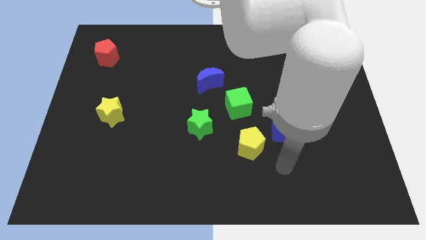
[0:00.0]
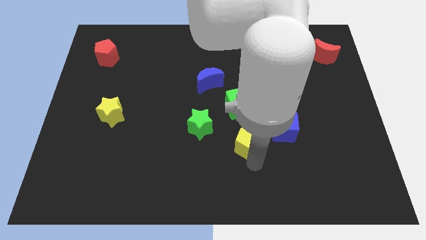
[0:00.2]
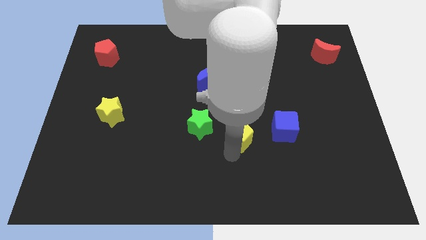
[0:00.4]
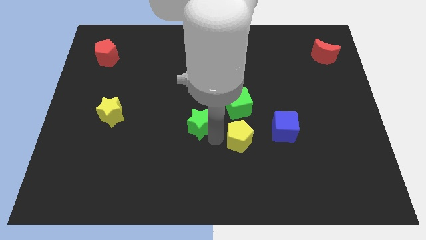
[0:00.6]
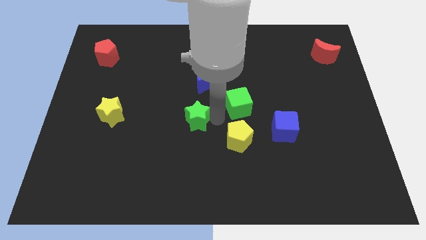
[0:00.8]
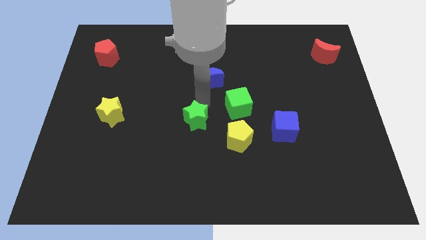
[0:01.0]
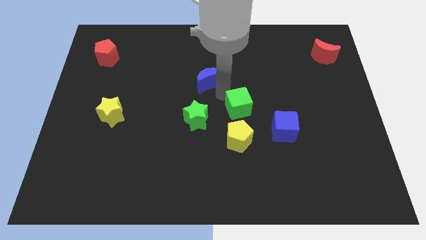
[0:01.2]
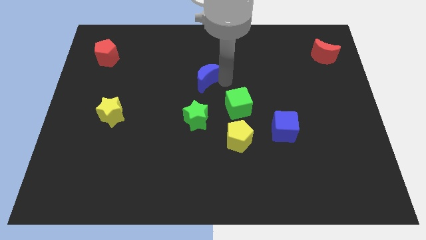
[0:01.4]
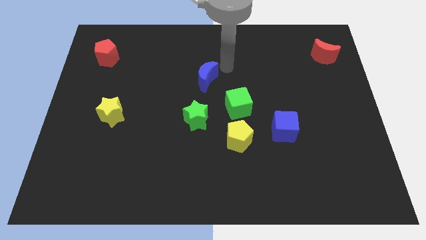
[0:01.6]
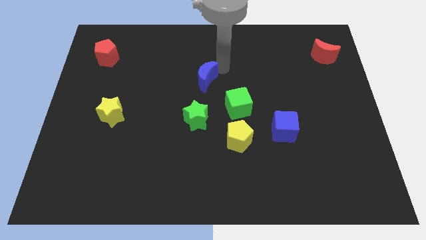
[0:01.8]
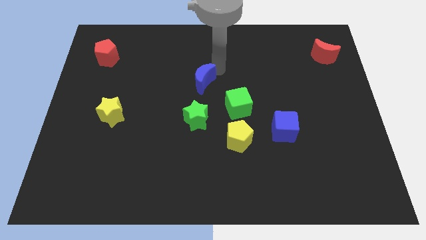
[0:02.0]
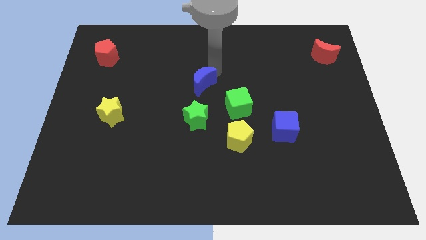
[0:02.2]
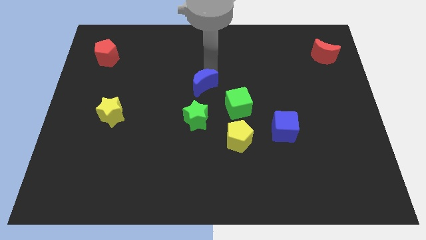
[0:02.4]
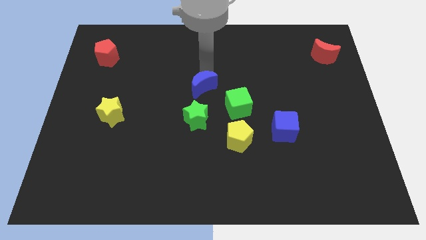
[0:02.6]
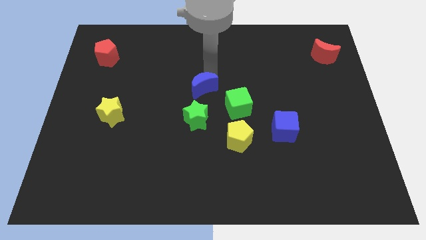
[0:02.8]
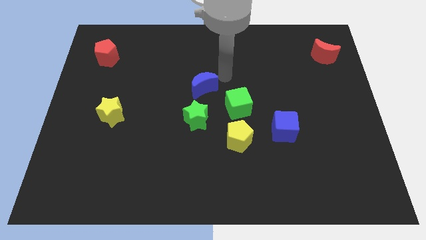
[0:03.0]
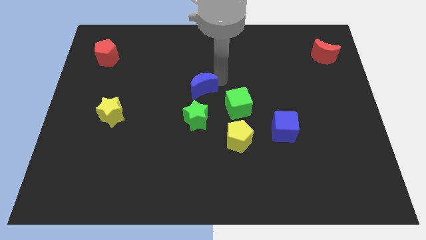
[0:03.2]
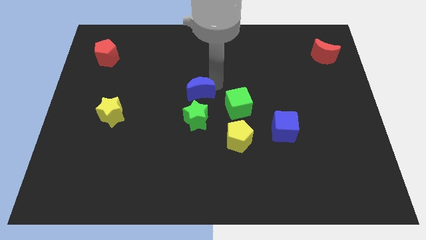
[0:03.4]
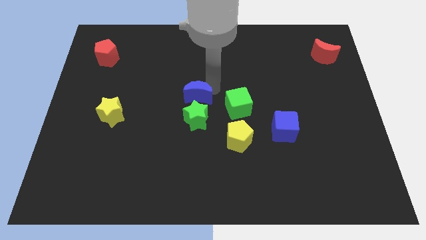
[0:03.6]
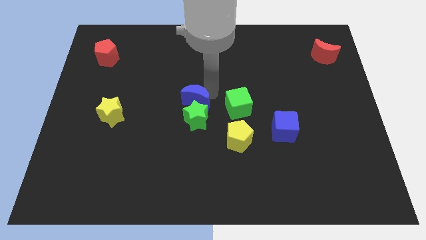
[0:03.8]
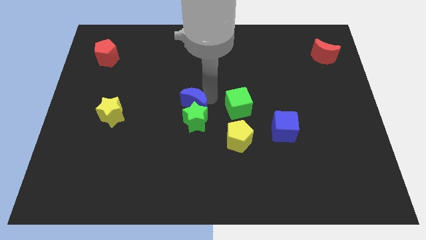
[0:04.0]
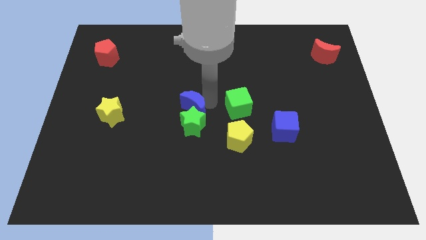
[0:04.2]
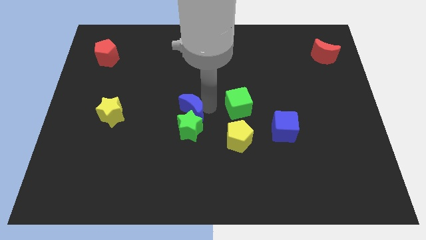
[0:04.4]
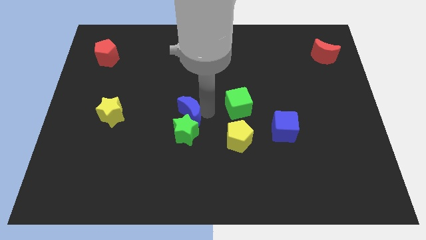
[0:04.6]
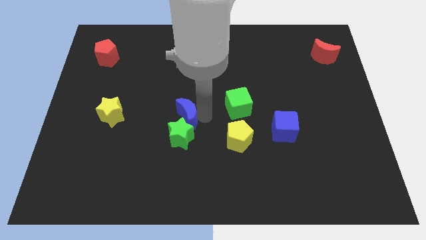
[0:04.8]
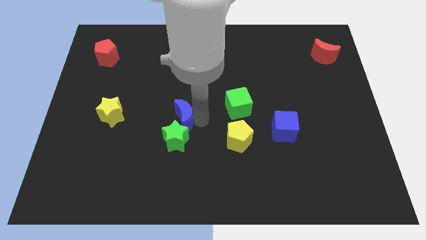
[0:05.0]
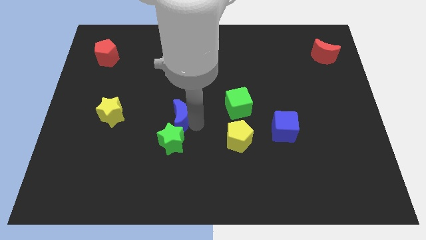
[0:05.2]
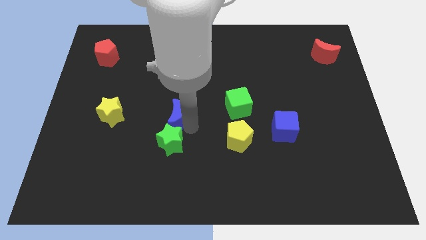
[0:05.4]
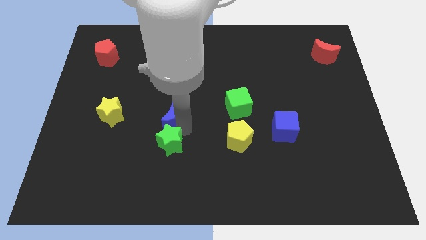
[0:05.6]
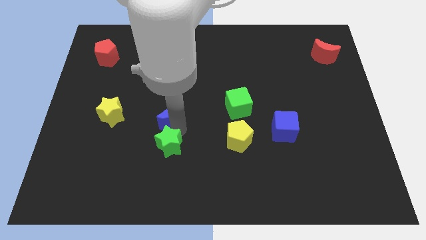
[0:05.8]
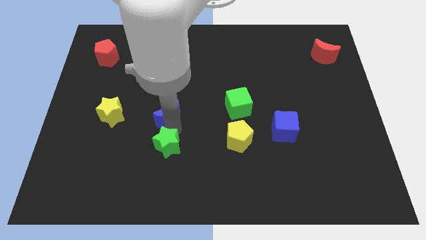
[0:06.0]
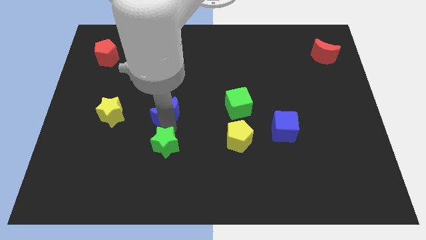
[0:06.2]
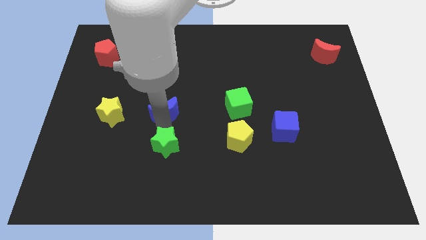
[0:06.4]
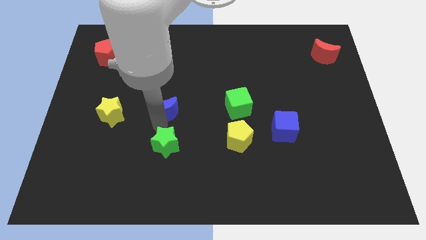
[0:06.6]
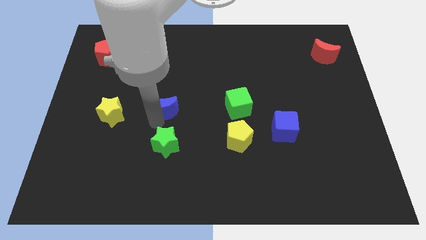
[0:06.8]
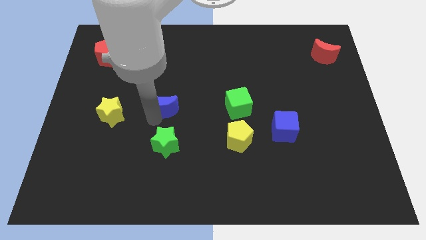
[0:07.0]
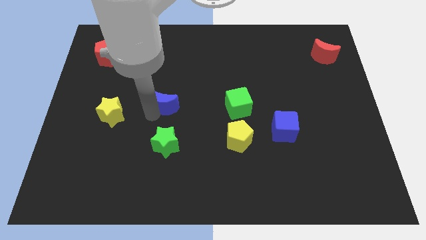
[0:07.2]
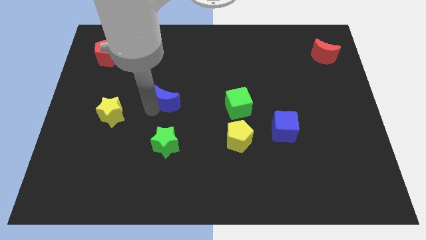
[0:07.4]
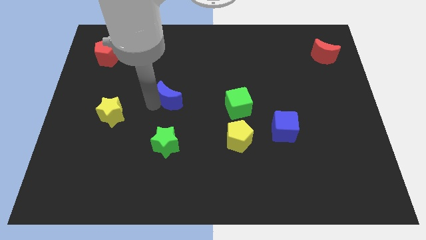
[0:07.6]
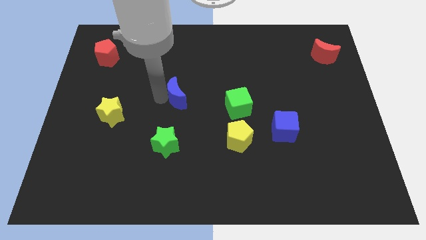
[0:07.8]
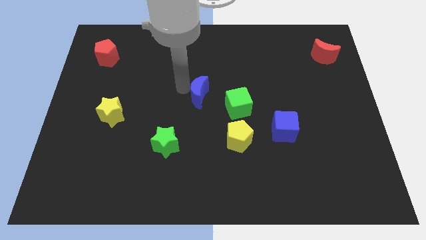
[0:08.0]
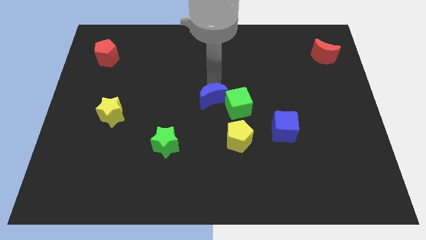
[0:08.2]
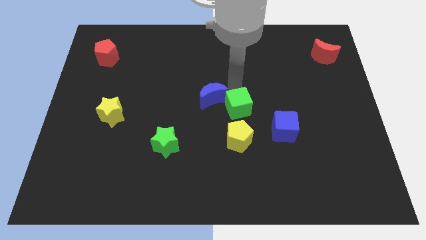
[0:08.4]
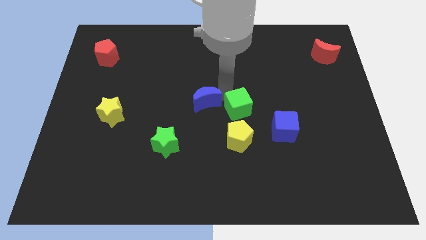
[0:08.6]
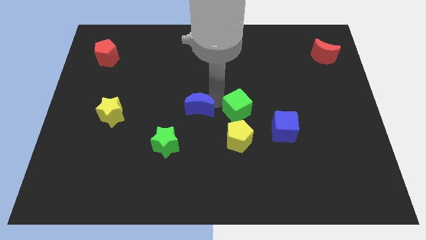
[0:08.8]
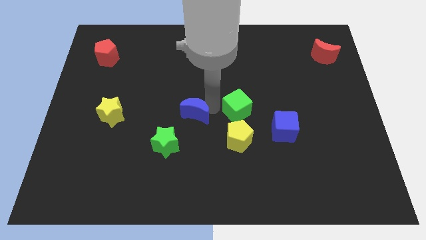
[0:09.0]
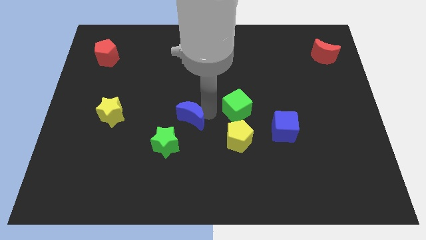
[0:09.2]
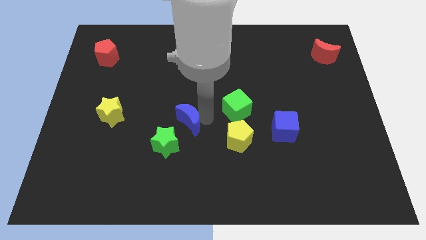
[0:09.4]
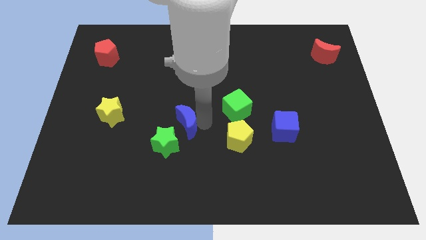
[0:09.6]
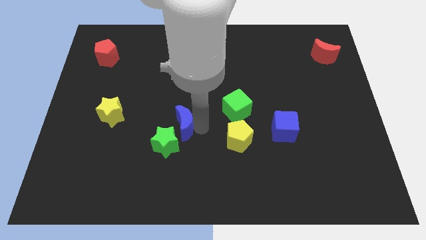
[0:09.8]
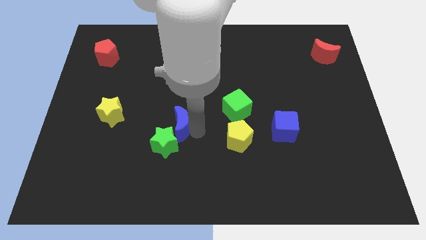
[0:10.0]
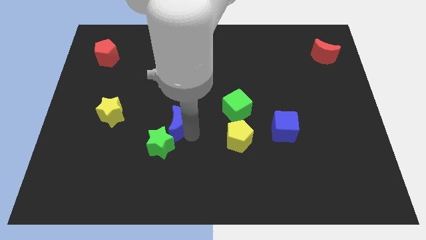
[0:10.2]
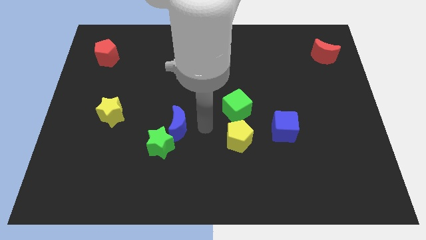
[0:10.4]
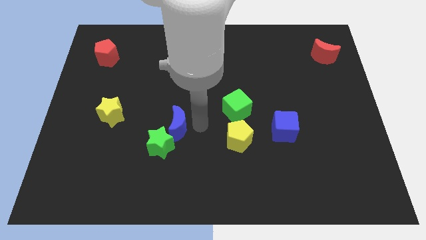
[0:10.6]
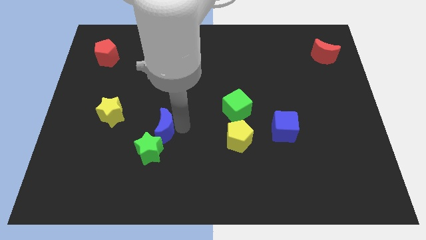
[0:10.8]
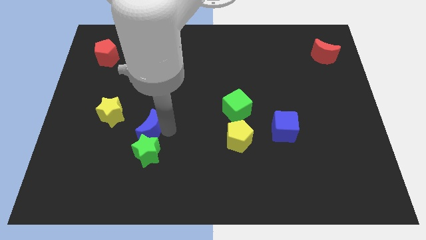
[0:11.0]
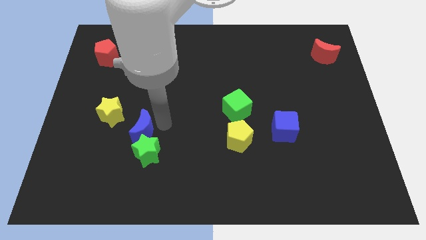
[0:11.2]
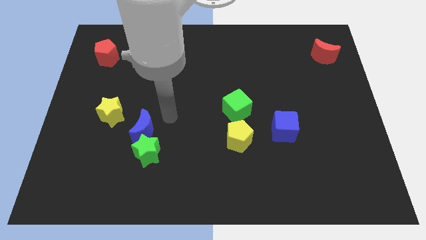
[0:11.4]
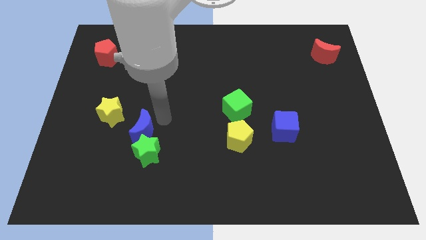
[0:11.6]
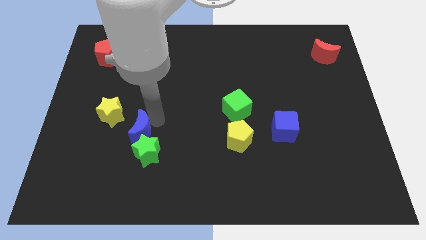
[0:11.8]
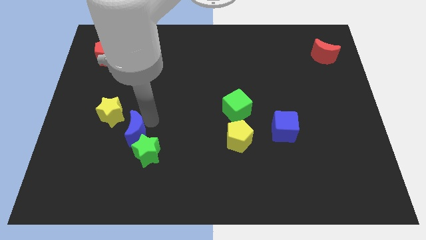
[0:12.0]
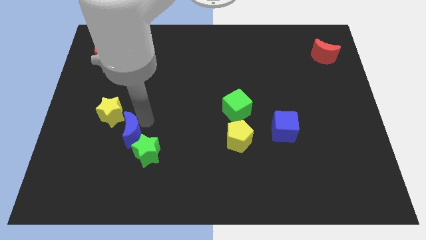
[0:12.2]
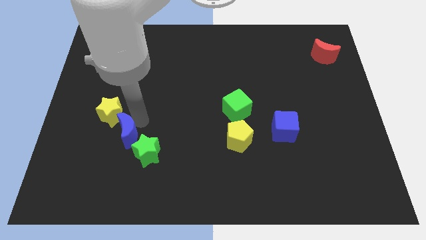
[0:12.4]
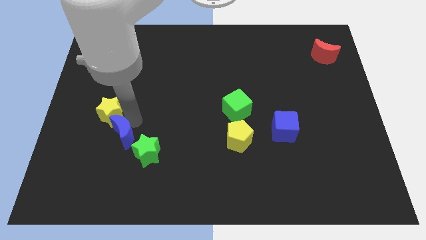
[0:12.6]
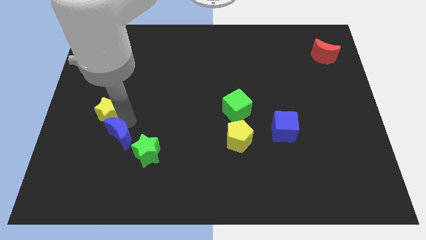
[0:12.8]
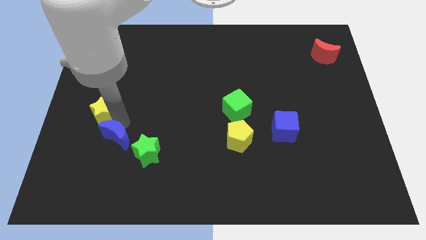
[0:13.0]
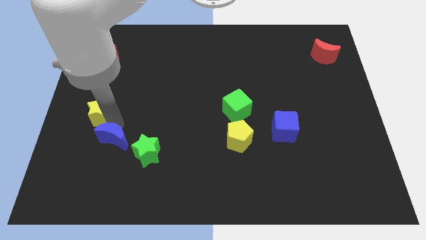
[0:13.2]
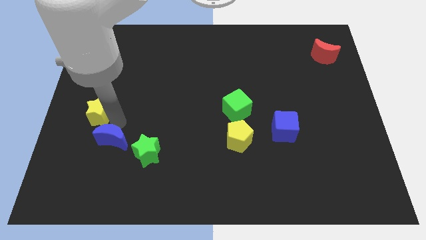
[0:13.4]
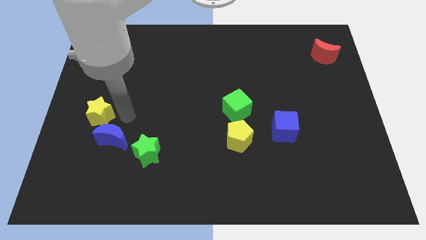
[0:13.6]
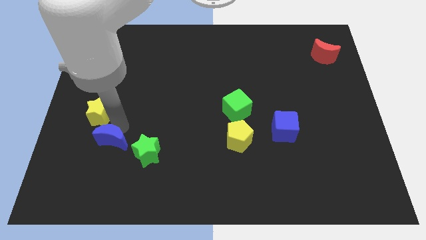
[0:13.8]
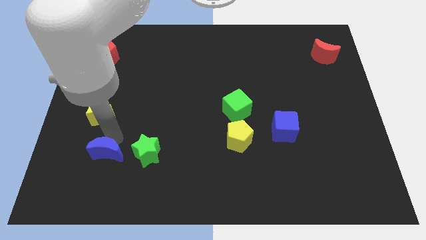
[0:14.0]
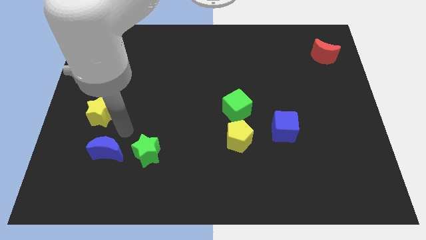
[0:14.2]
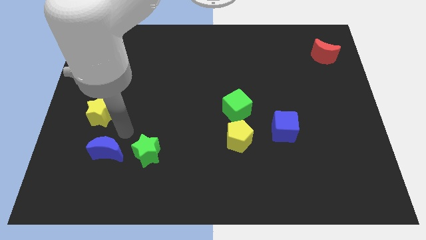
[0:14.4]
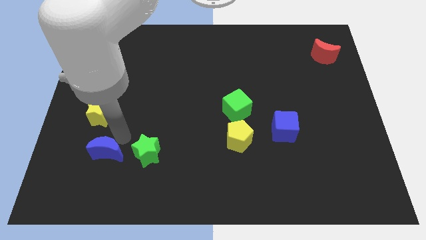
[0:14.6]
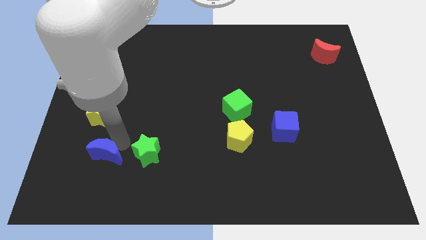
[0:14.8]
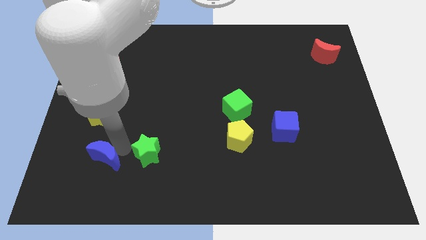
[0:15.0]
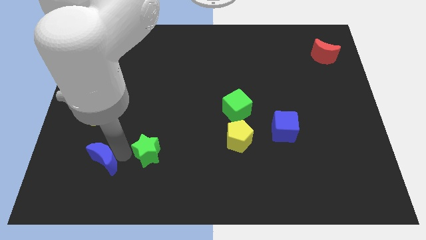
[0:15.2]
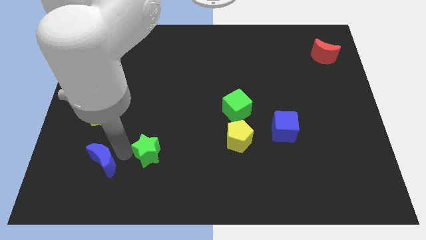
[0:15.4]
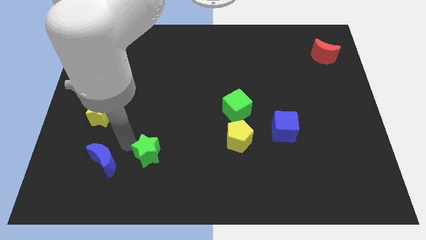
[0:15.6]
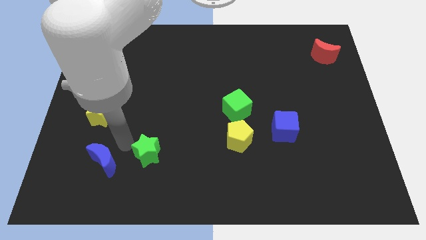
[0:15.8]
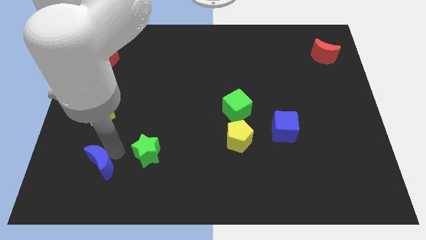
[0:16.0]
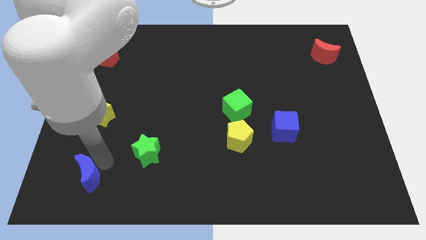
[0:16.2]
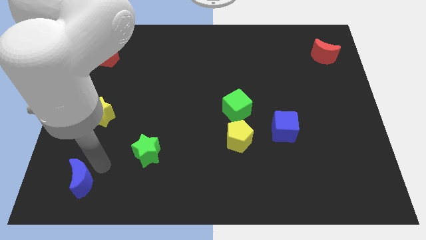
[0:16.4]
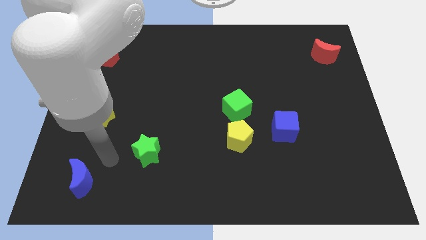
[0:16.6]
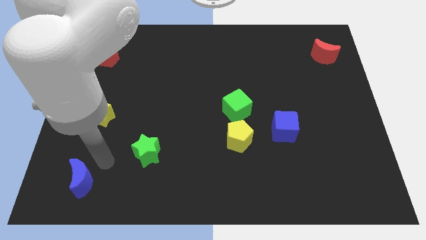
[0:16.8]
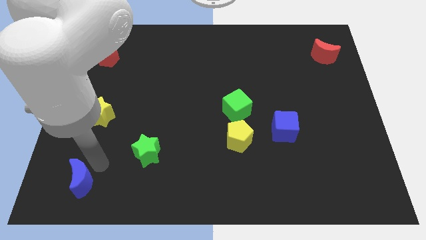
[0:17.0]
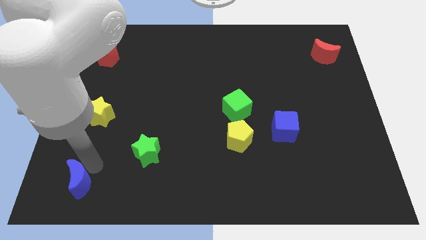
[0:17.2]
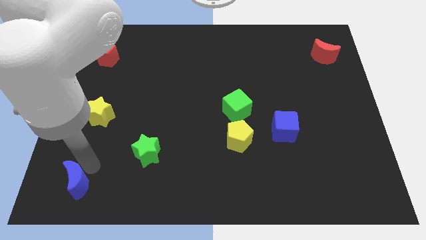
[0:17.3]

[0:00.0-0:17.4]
push the blue moon to the lower left corner
